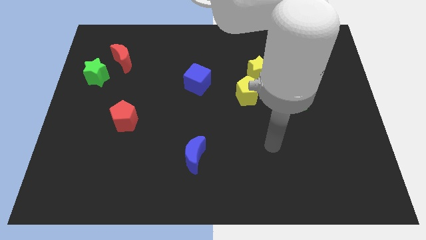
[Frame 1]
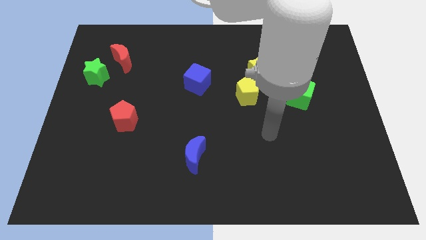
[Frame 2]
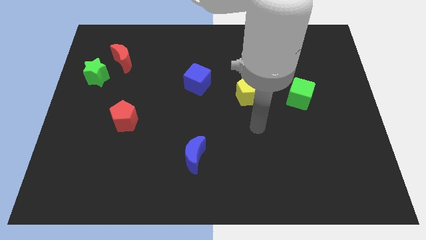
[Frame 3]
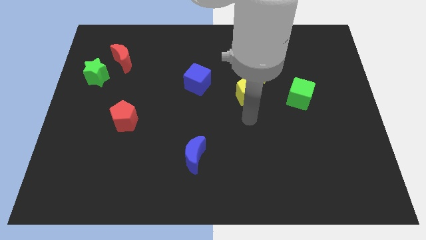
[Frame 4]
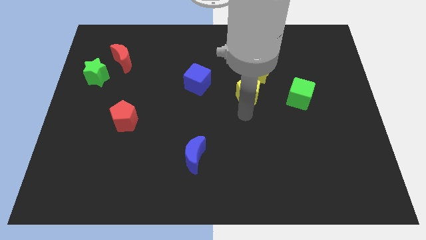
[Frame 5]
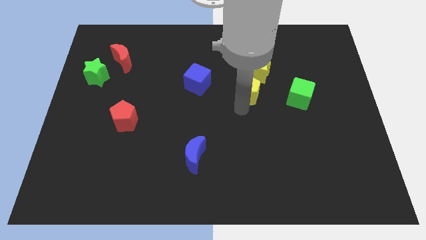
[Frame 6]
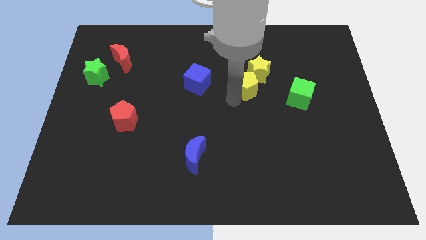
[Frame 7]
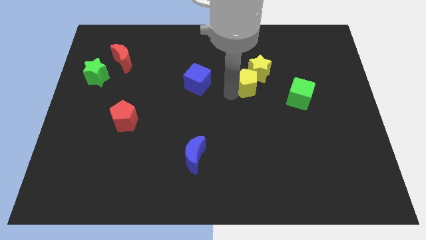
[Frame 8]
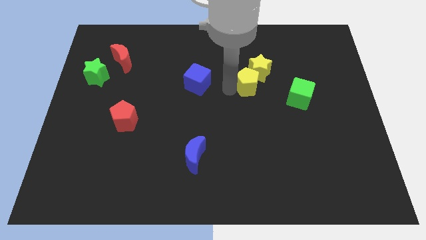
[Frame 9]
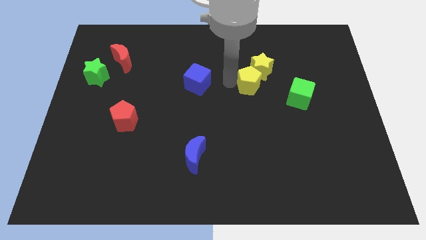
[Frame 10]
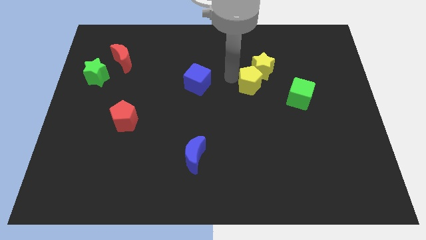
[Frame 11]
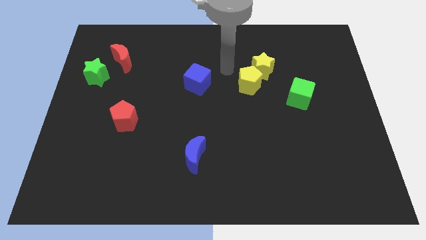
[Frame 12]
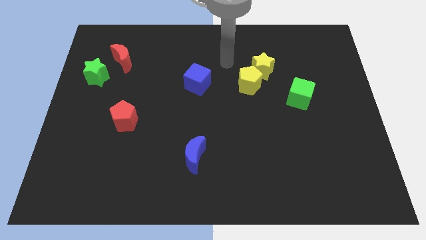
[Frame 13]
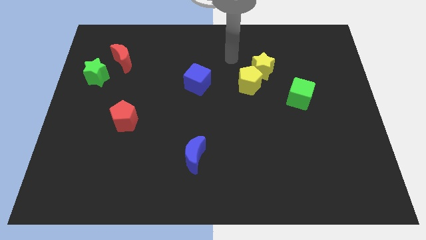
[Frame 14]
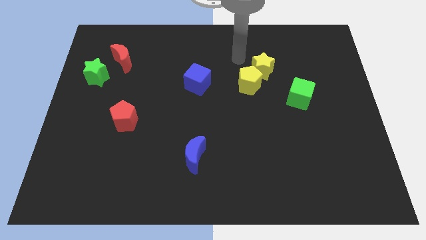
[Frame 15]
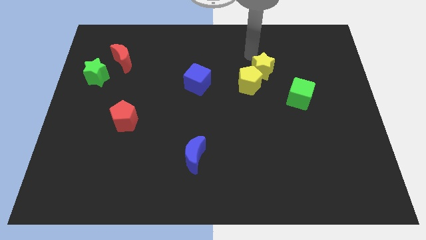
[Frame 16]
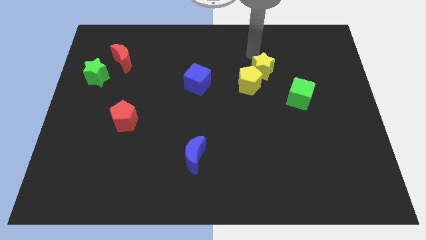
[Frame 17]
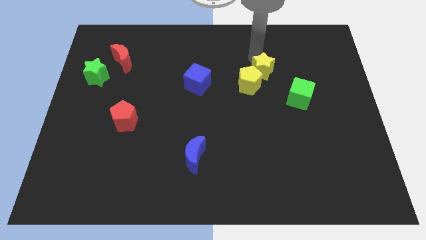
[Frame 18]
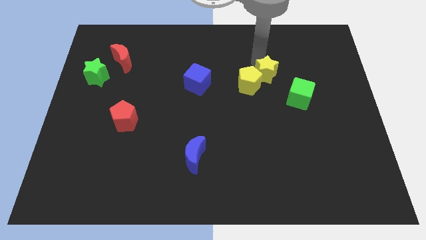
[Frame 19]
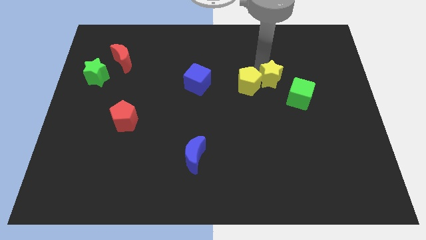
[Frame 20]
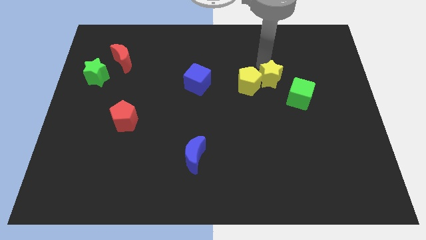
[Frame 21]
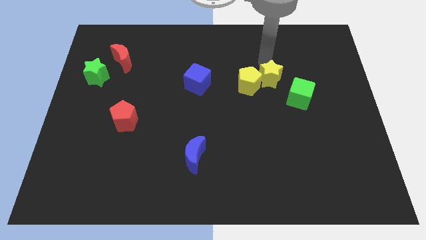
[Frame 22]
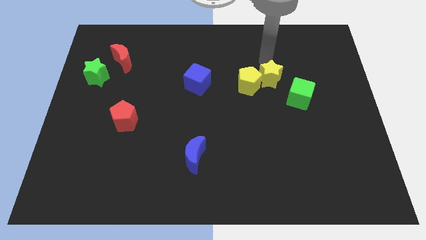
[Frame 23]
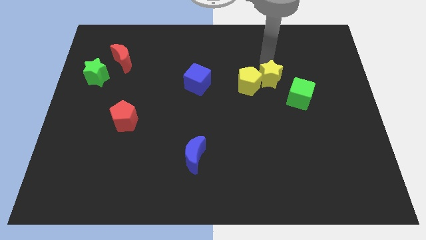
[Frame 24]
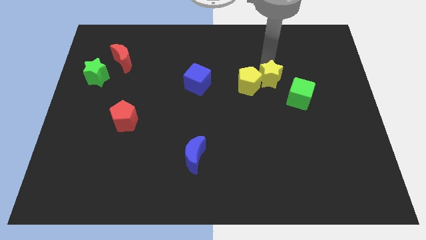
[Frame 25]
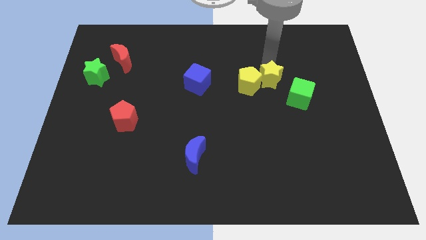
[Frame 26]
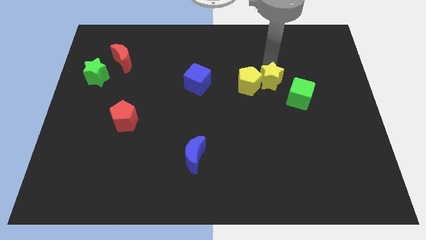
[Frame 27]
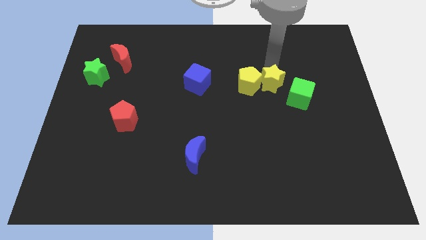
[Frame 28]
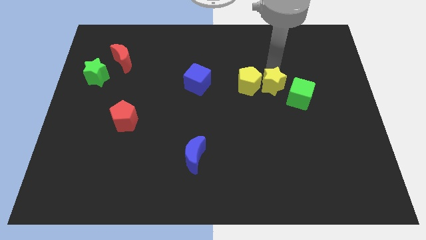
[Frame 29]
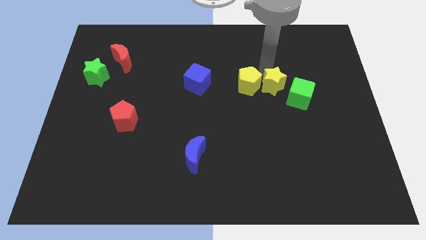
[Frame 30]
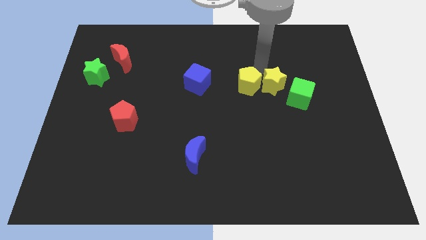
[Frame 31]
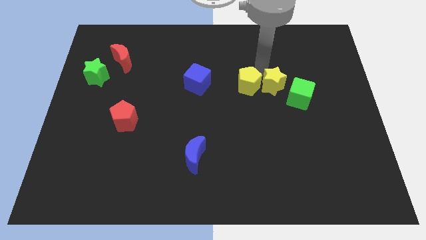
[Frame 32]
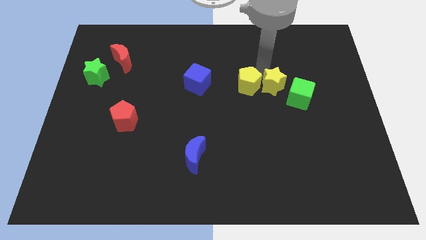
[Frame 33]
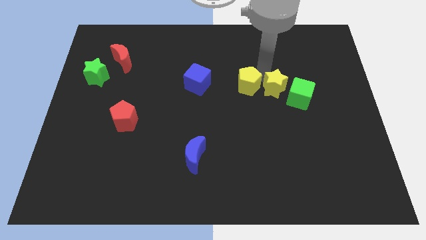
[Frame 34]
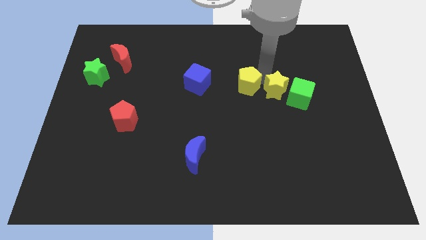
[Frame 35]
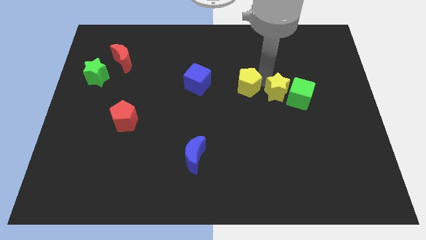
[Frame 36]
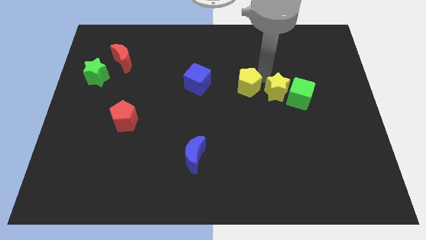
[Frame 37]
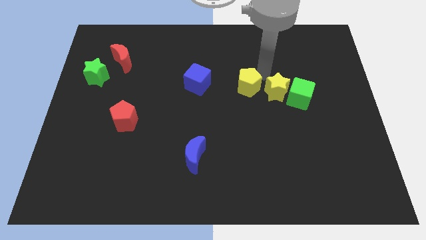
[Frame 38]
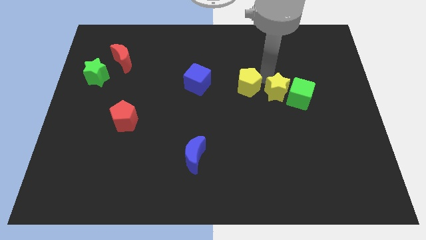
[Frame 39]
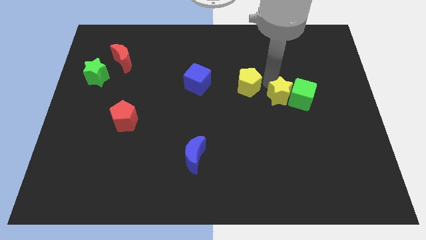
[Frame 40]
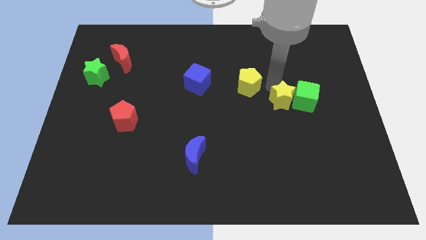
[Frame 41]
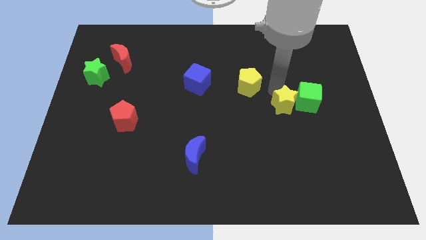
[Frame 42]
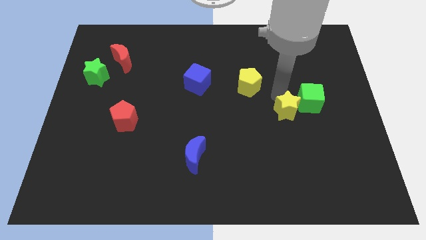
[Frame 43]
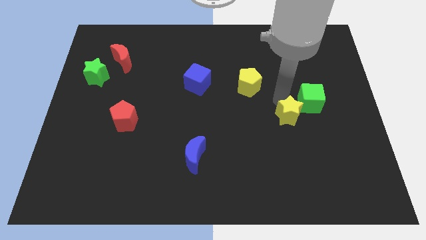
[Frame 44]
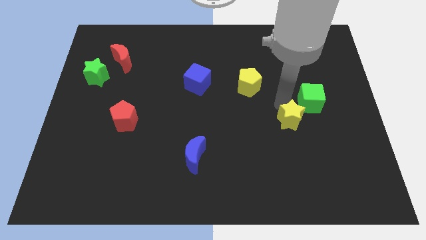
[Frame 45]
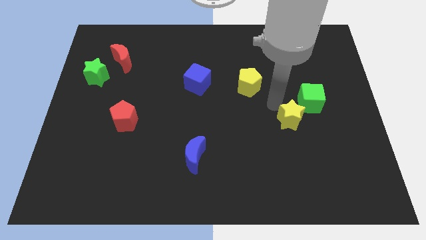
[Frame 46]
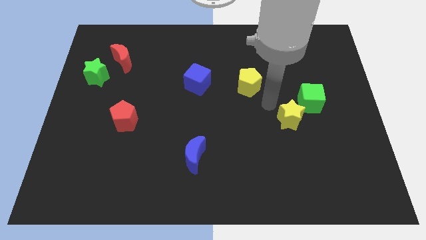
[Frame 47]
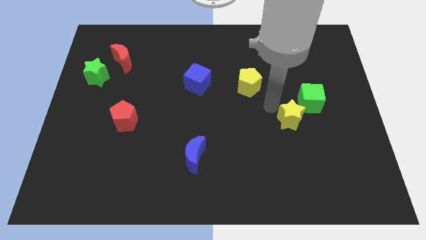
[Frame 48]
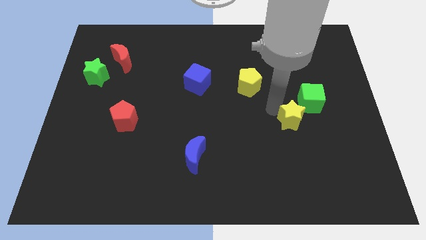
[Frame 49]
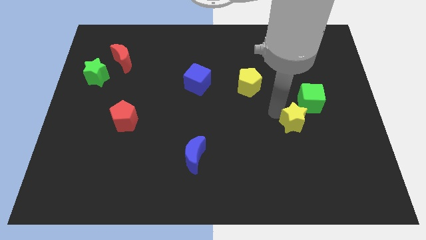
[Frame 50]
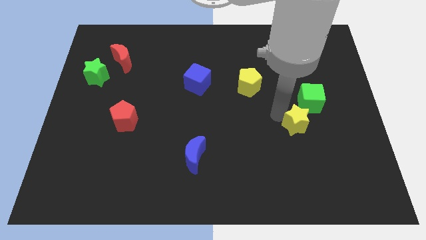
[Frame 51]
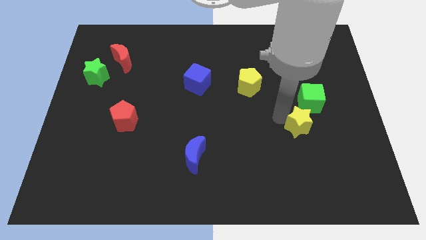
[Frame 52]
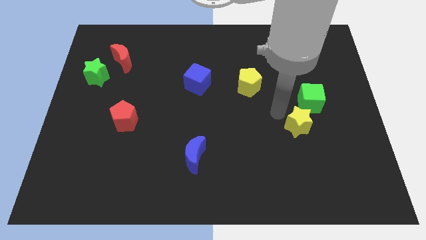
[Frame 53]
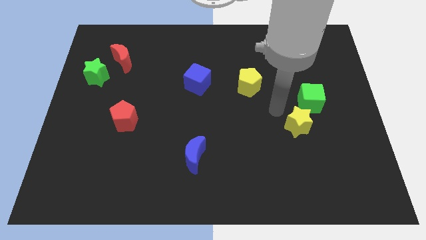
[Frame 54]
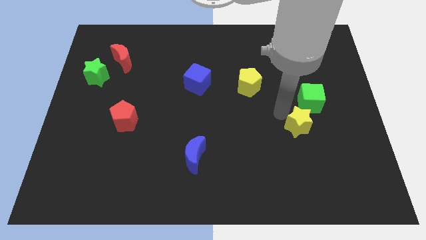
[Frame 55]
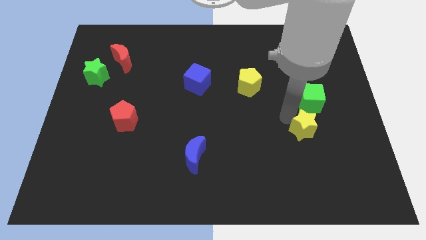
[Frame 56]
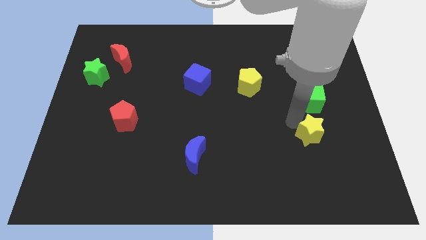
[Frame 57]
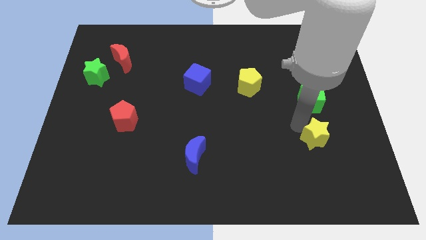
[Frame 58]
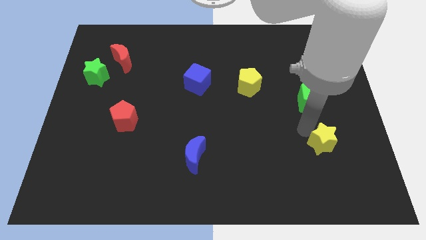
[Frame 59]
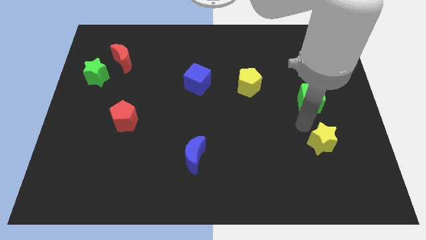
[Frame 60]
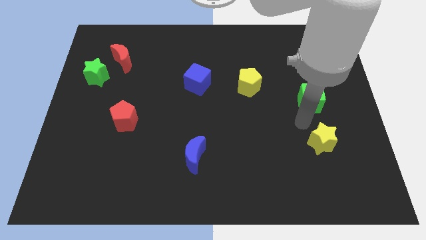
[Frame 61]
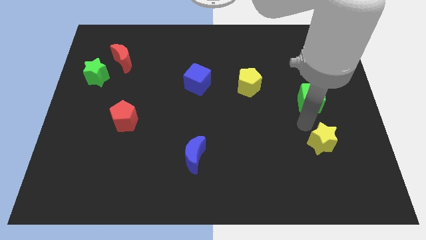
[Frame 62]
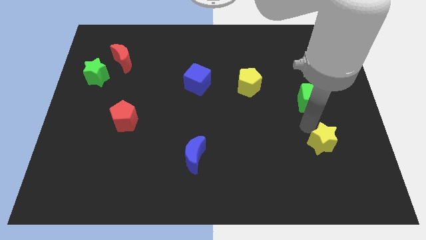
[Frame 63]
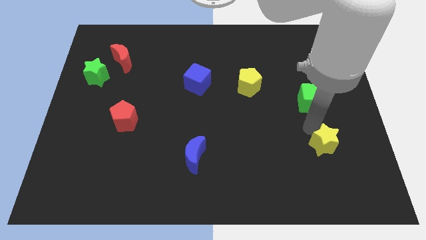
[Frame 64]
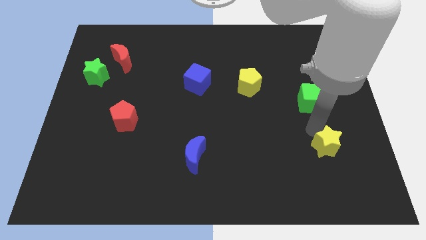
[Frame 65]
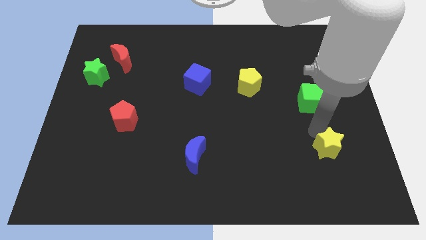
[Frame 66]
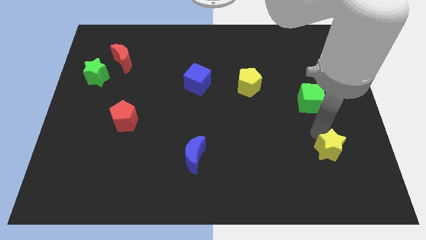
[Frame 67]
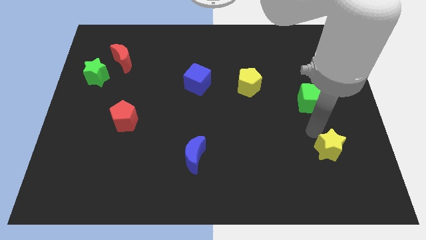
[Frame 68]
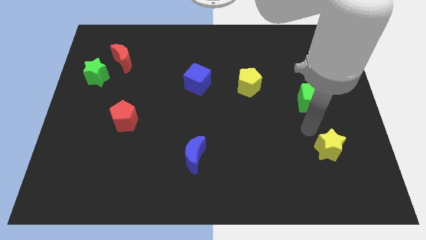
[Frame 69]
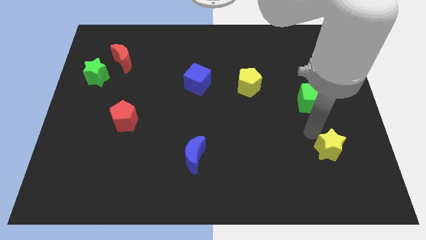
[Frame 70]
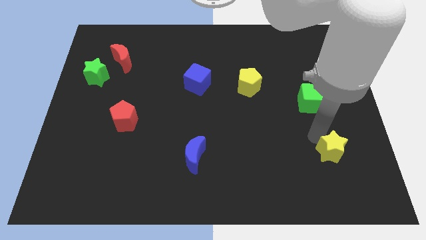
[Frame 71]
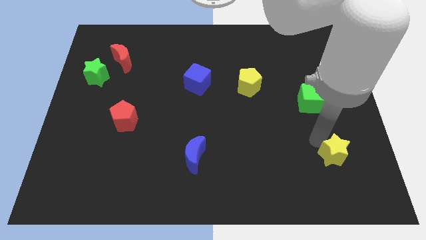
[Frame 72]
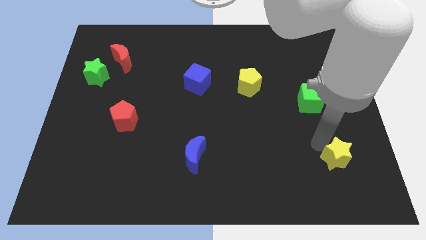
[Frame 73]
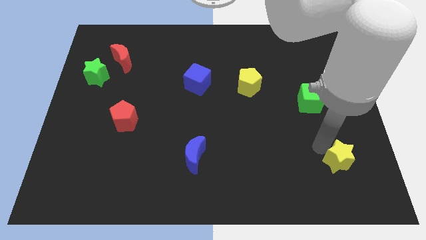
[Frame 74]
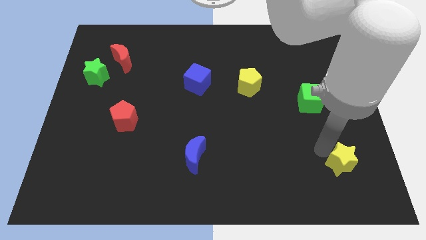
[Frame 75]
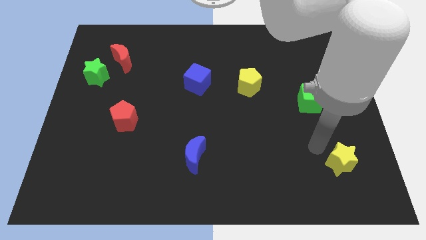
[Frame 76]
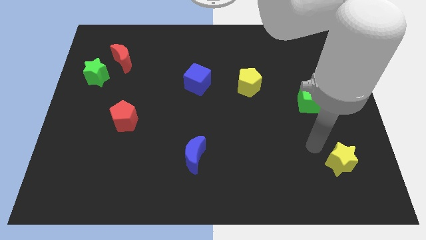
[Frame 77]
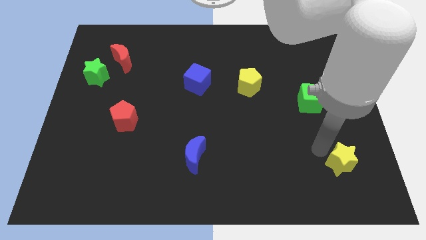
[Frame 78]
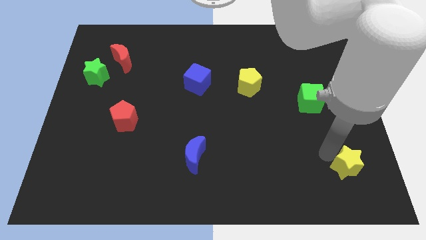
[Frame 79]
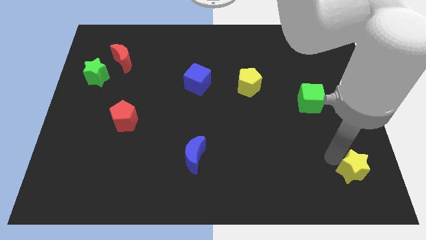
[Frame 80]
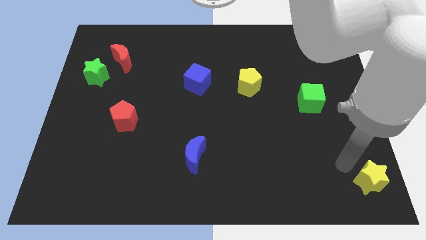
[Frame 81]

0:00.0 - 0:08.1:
push the yellow star to the bottom right of the board
